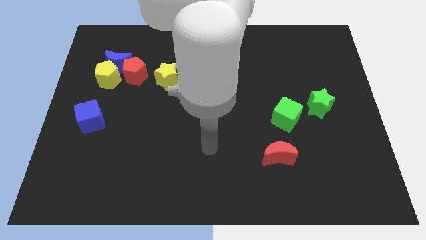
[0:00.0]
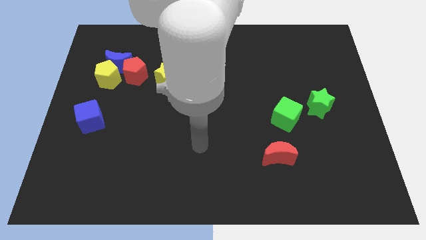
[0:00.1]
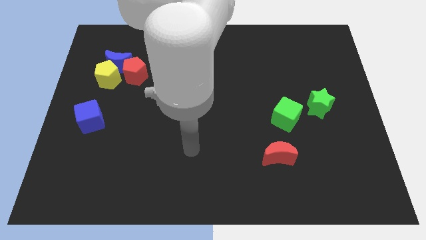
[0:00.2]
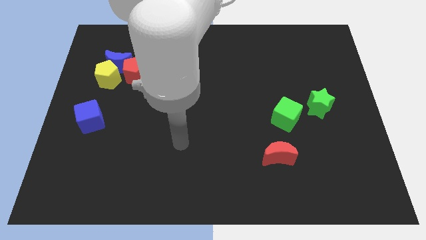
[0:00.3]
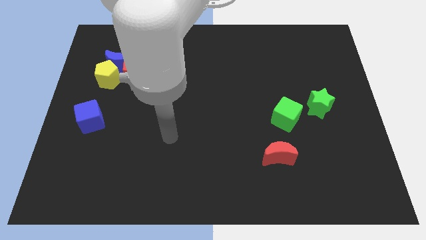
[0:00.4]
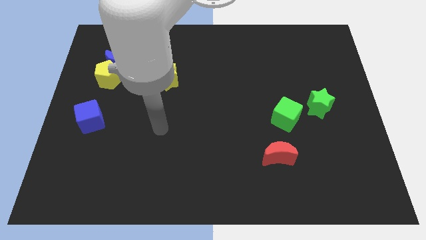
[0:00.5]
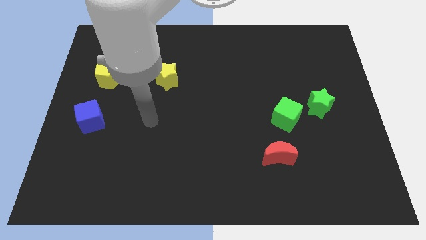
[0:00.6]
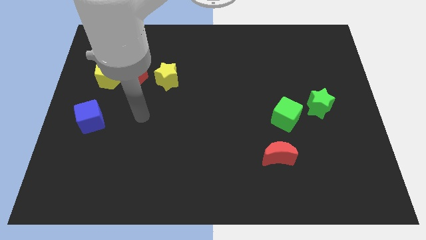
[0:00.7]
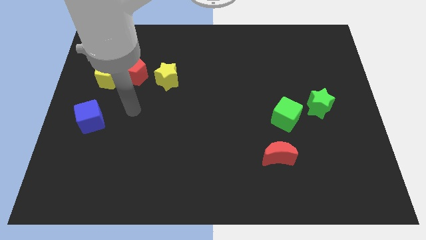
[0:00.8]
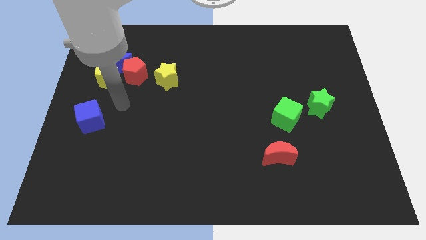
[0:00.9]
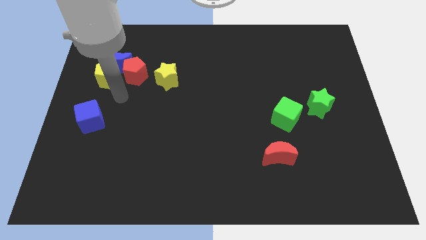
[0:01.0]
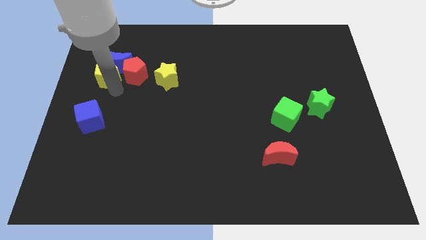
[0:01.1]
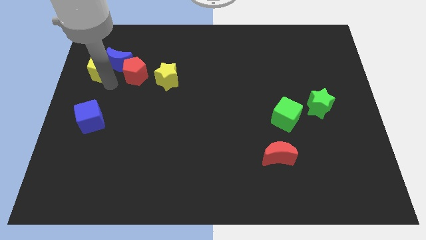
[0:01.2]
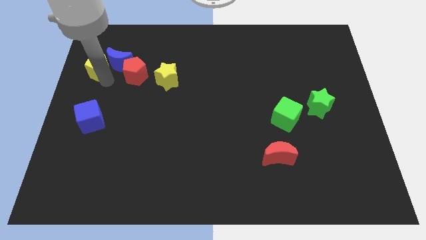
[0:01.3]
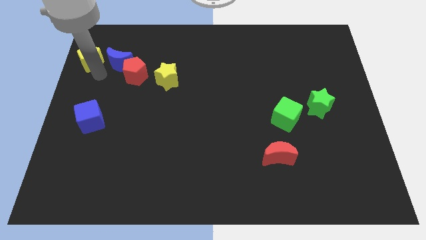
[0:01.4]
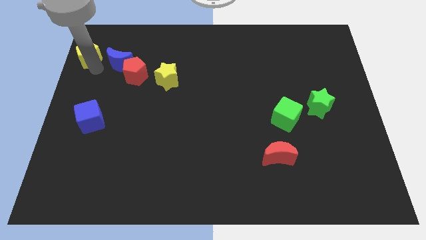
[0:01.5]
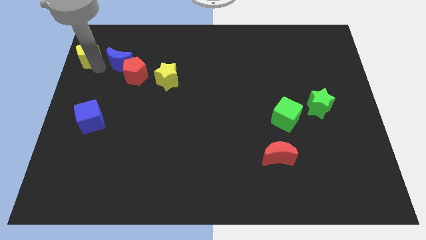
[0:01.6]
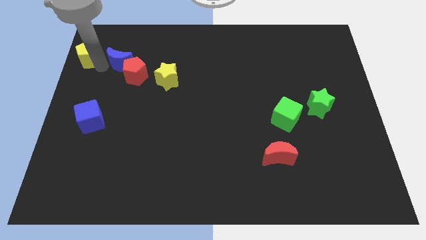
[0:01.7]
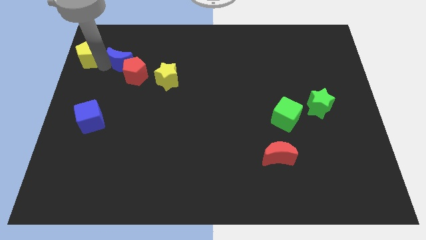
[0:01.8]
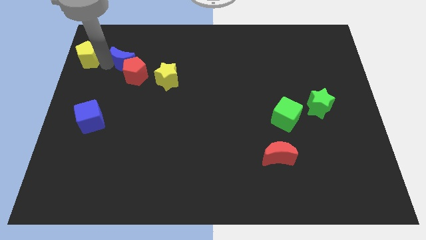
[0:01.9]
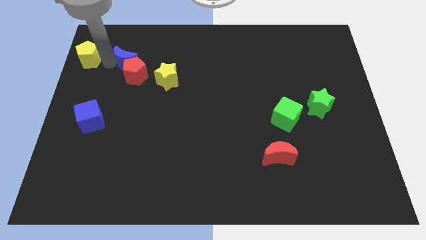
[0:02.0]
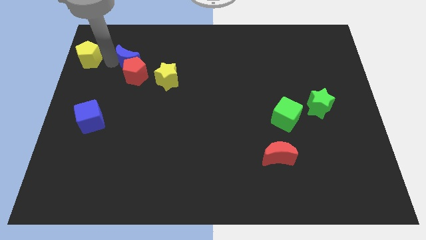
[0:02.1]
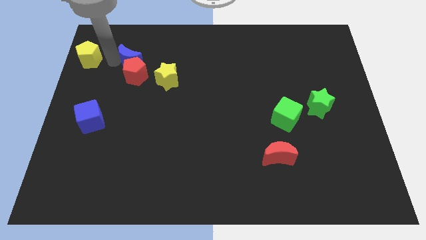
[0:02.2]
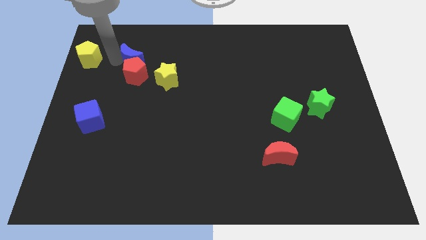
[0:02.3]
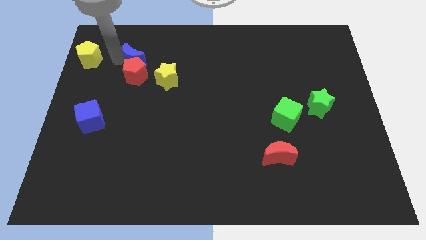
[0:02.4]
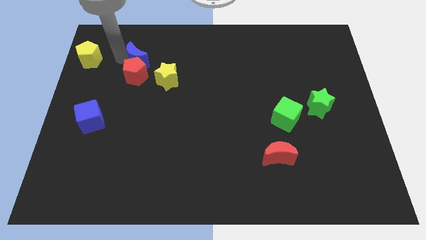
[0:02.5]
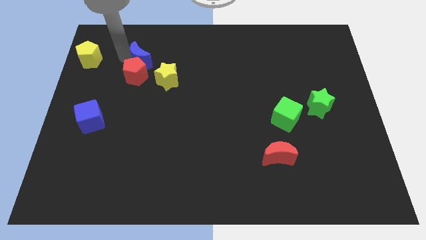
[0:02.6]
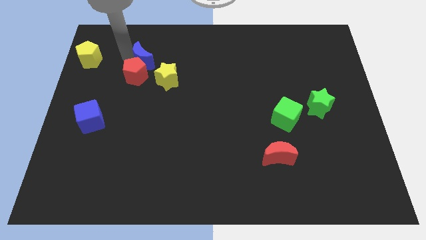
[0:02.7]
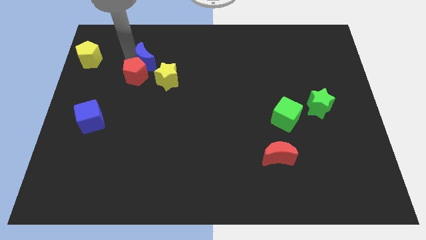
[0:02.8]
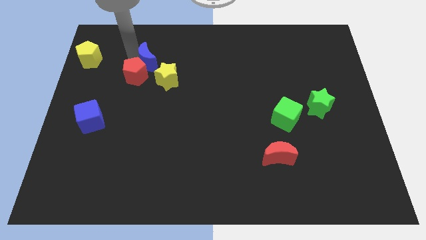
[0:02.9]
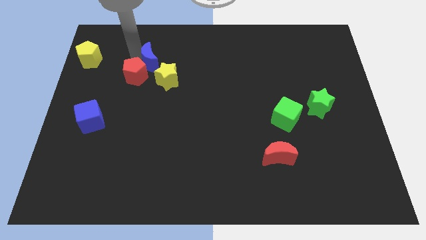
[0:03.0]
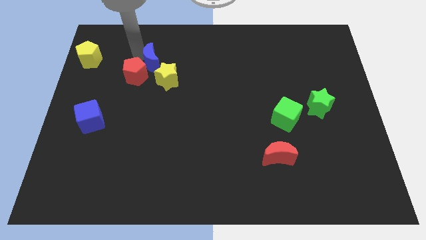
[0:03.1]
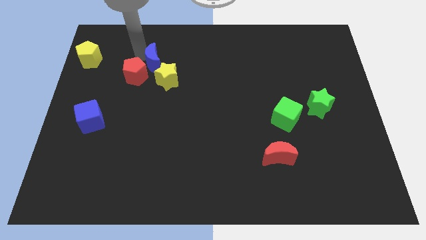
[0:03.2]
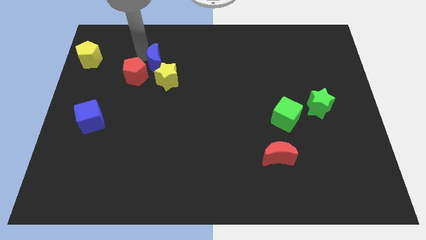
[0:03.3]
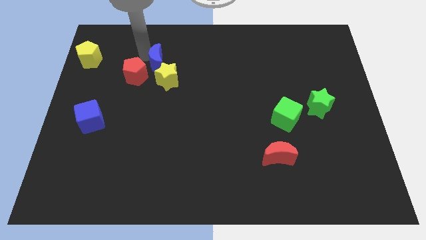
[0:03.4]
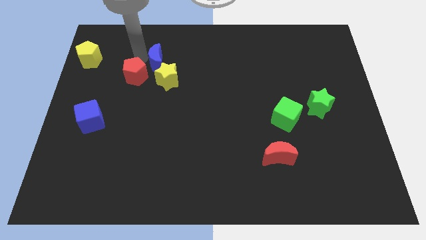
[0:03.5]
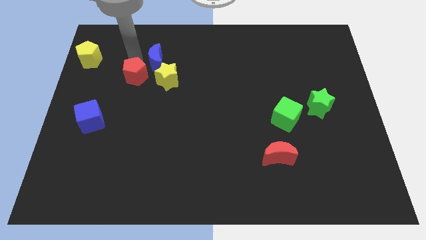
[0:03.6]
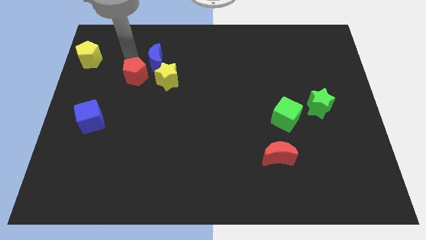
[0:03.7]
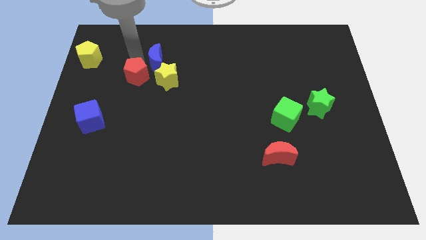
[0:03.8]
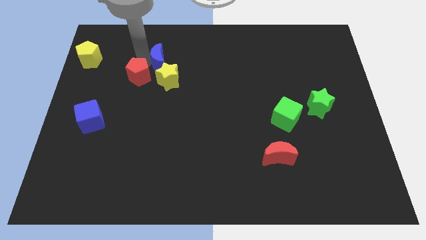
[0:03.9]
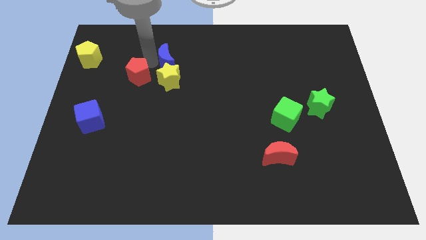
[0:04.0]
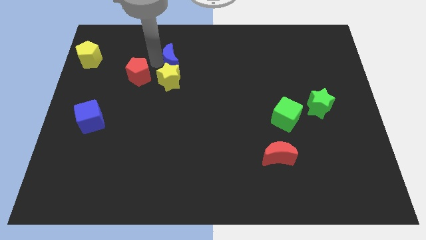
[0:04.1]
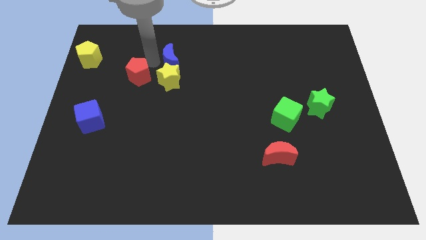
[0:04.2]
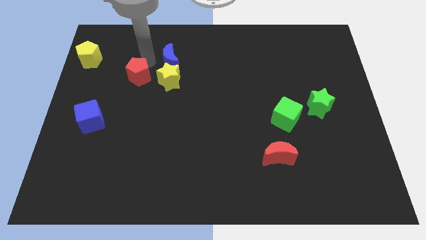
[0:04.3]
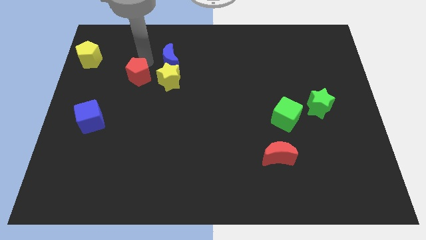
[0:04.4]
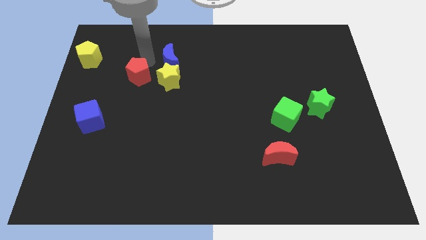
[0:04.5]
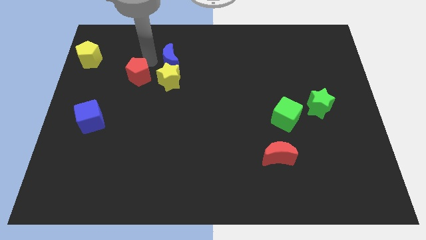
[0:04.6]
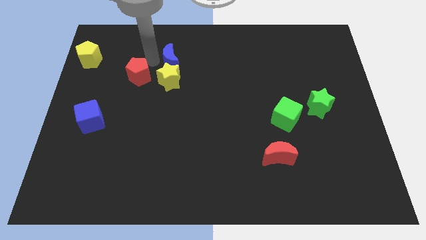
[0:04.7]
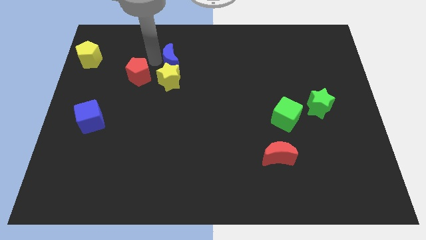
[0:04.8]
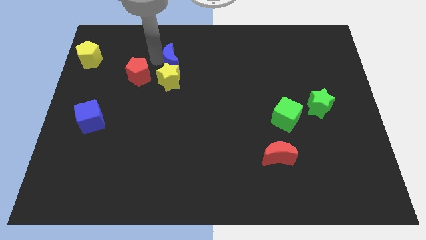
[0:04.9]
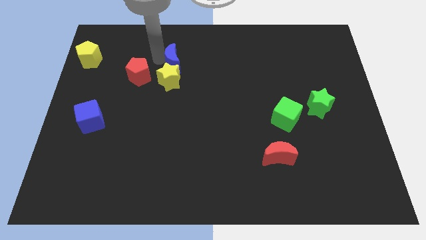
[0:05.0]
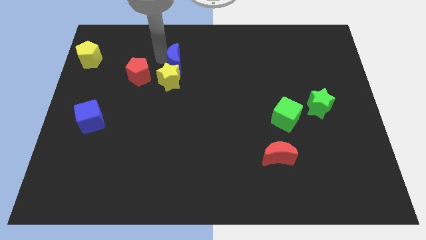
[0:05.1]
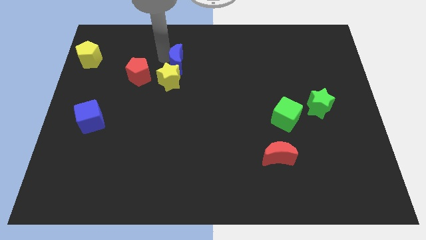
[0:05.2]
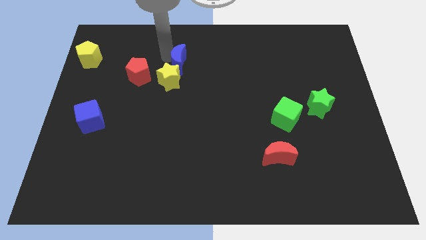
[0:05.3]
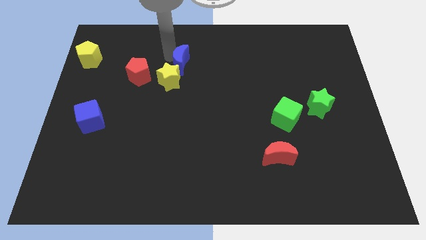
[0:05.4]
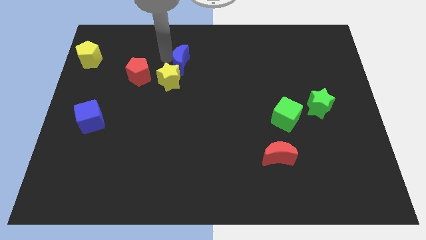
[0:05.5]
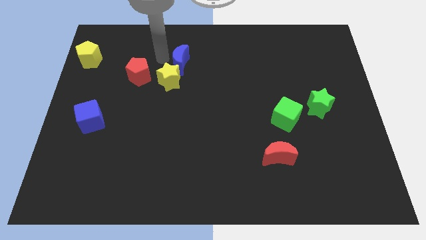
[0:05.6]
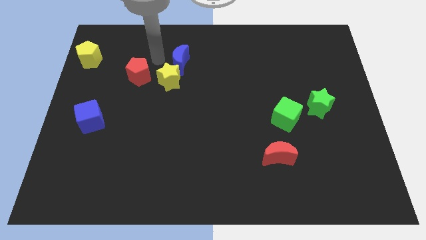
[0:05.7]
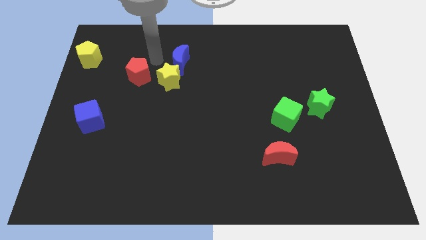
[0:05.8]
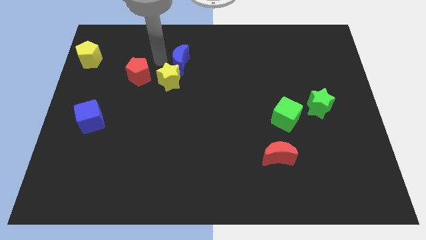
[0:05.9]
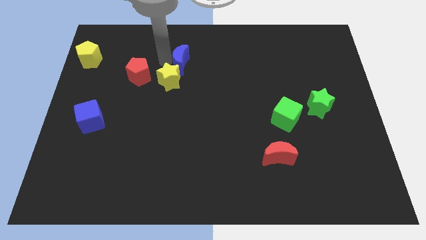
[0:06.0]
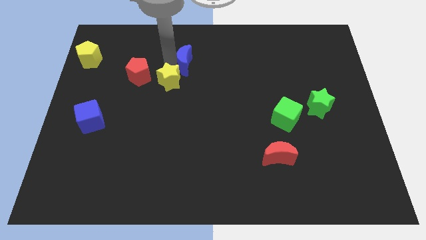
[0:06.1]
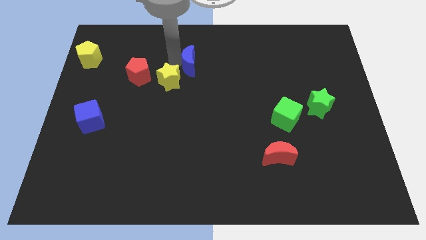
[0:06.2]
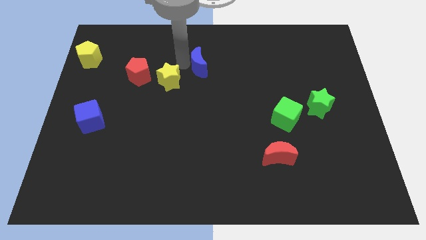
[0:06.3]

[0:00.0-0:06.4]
push the blue moon to the right

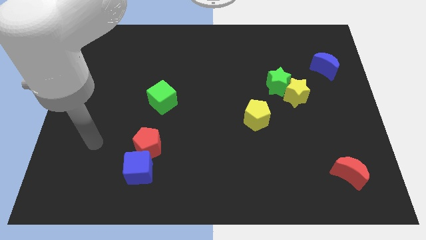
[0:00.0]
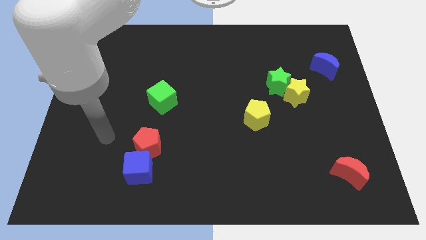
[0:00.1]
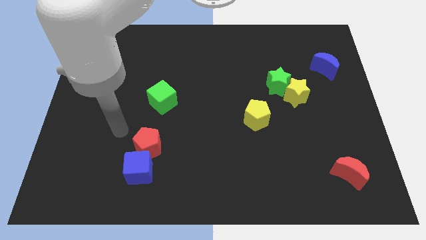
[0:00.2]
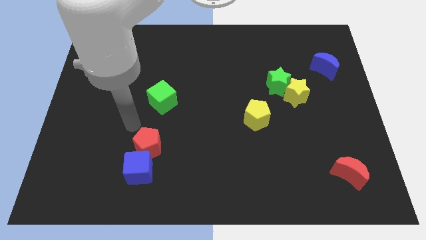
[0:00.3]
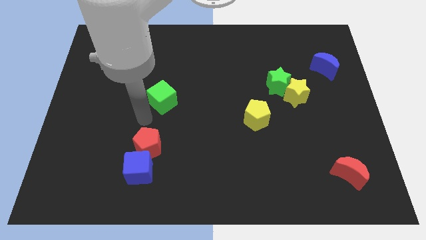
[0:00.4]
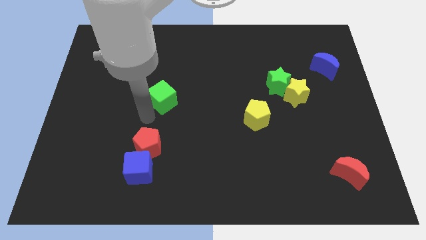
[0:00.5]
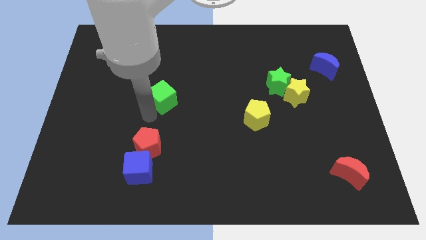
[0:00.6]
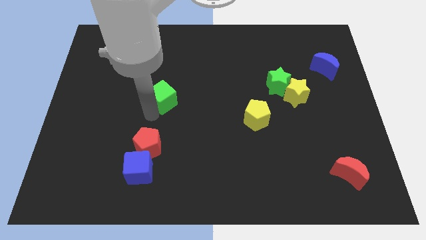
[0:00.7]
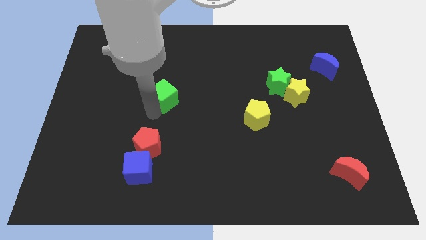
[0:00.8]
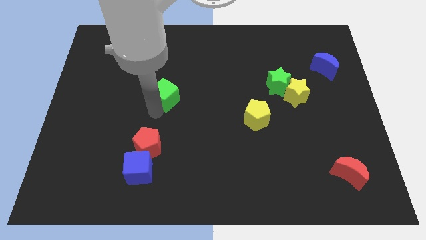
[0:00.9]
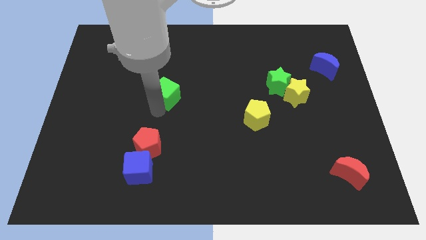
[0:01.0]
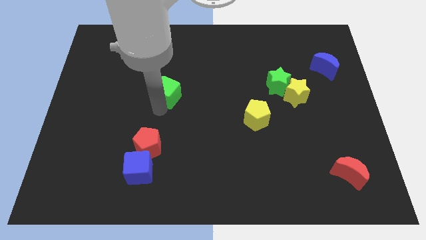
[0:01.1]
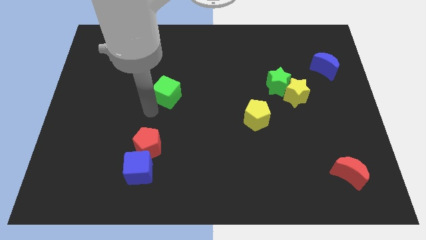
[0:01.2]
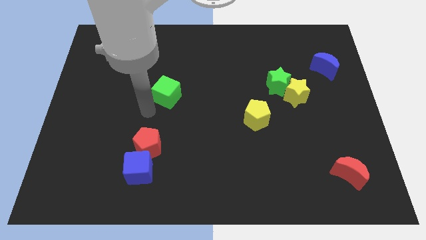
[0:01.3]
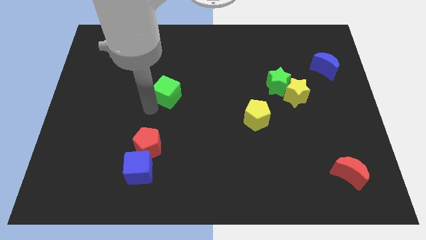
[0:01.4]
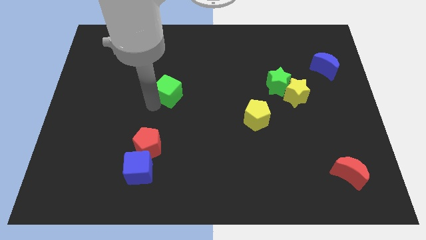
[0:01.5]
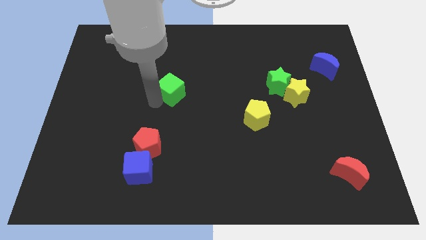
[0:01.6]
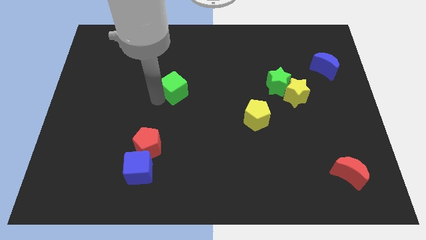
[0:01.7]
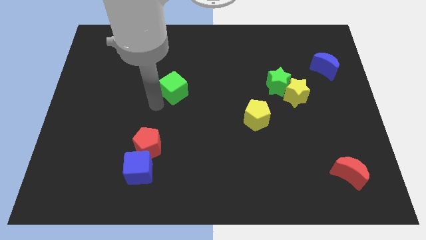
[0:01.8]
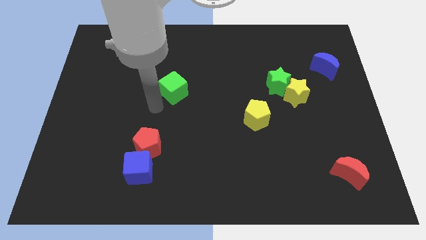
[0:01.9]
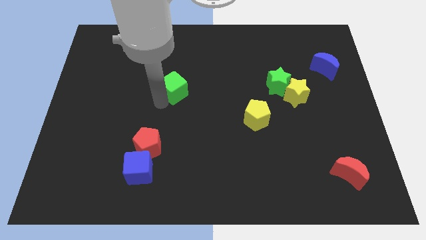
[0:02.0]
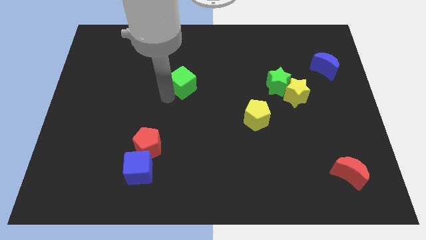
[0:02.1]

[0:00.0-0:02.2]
move the green cube up and to the right diagonally a little
